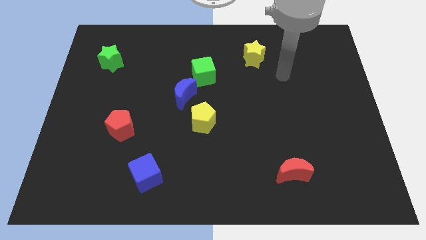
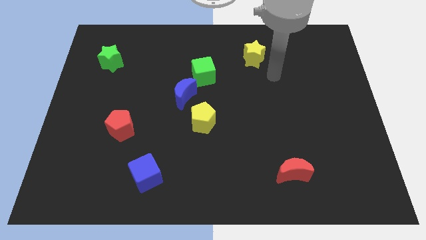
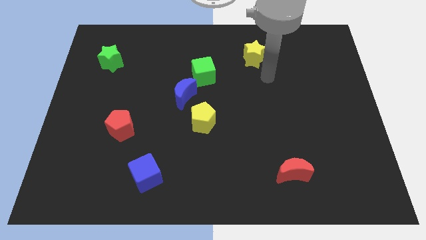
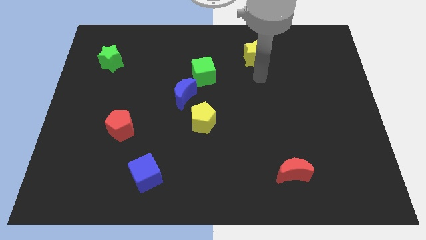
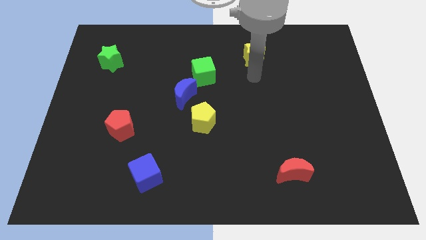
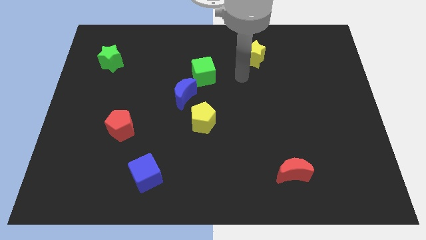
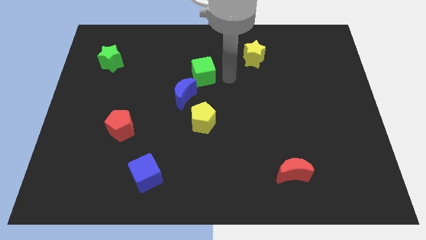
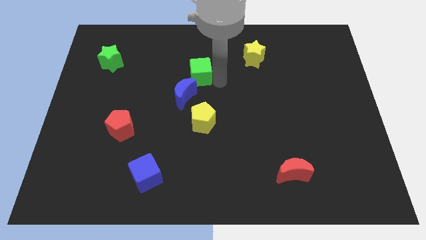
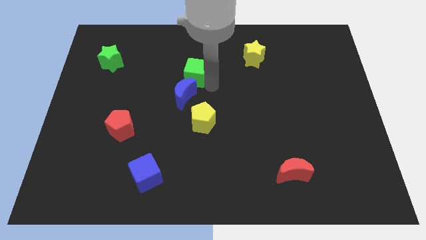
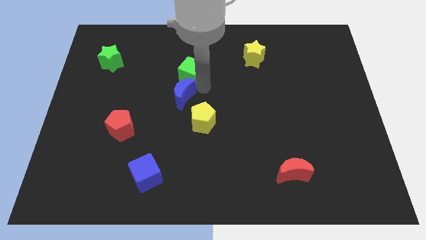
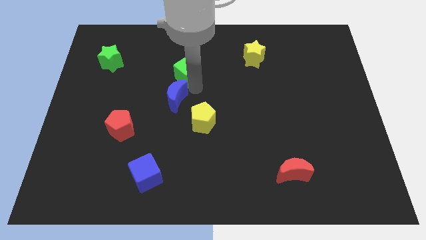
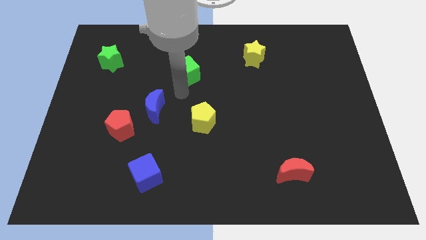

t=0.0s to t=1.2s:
pull the green cube apart from the blue moon

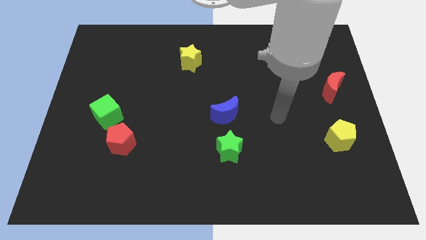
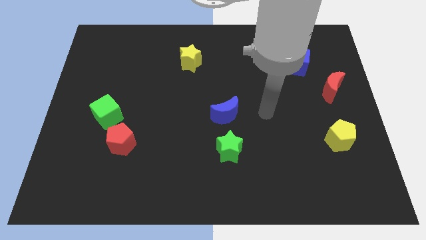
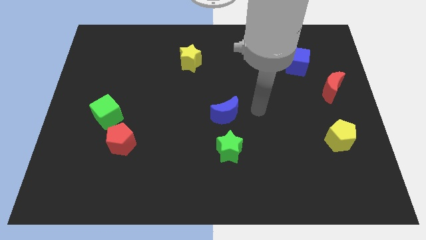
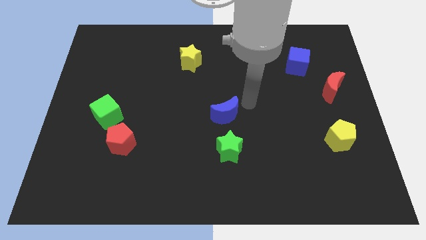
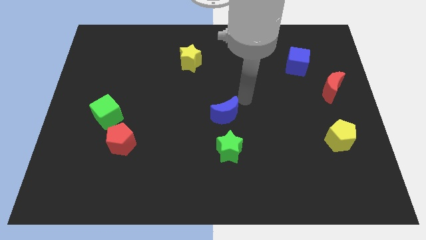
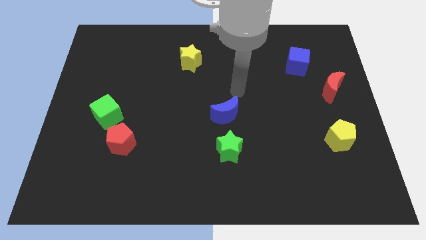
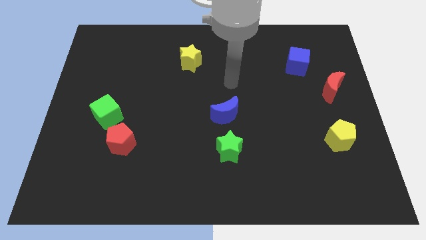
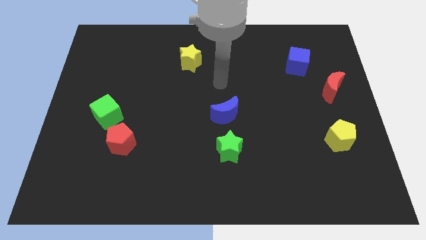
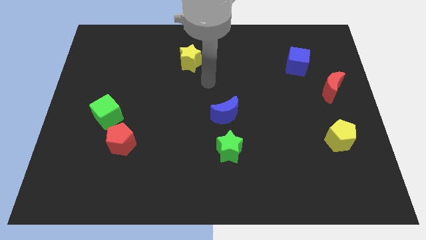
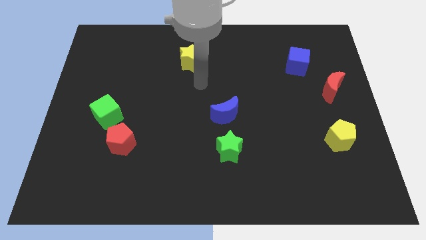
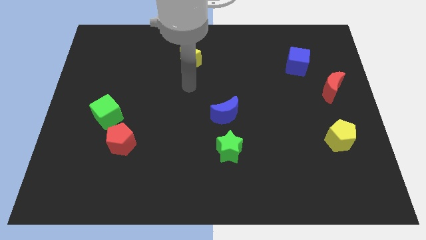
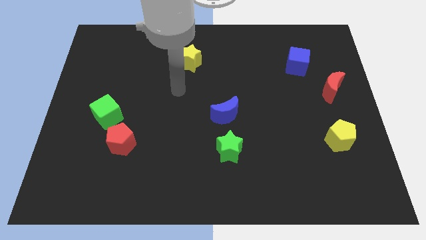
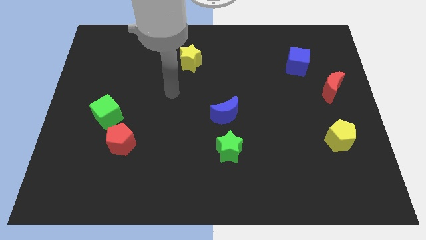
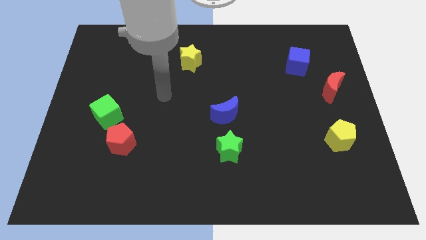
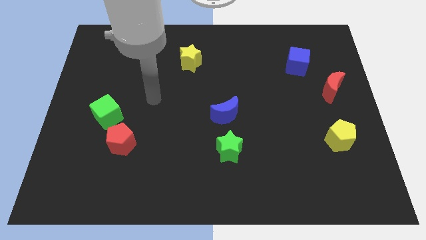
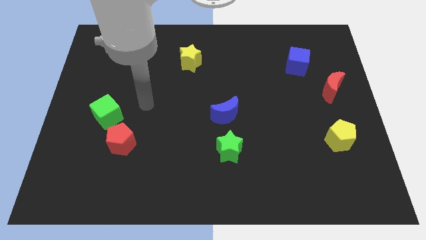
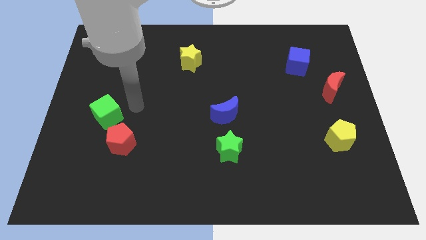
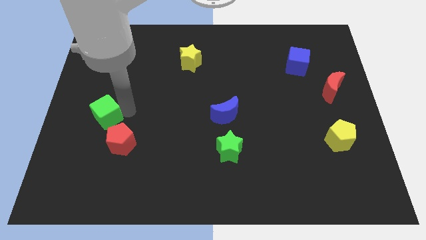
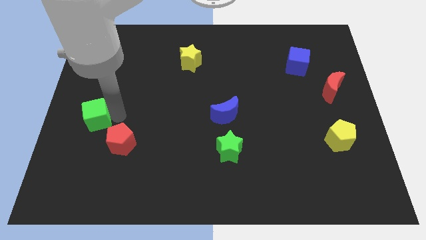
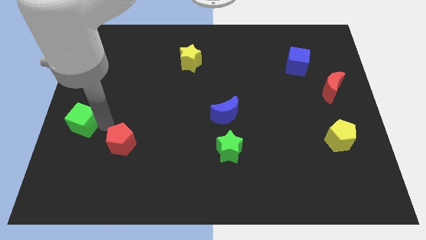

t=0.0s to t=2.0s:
pull the red pentagon apart from the green cube

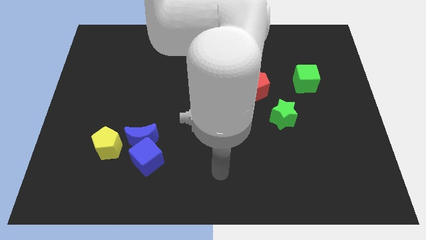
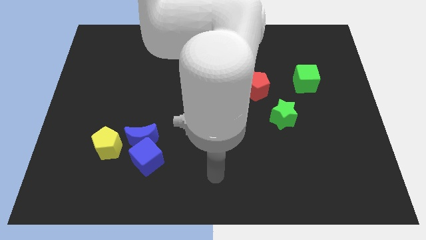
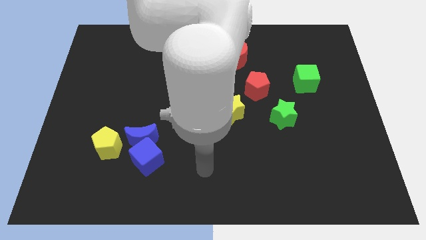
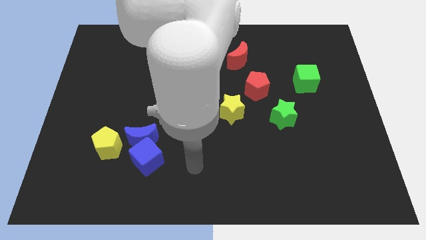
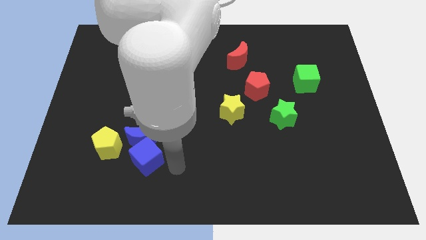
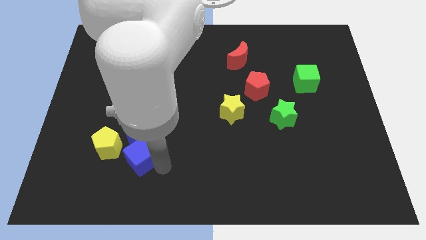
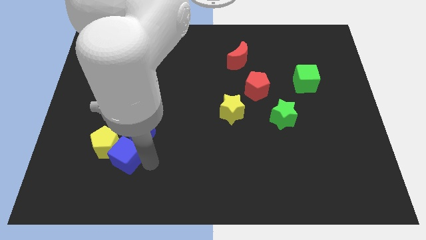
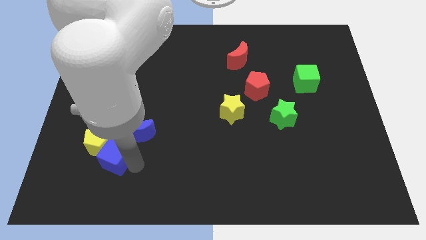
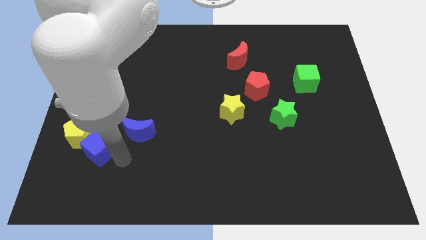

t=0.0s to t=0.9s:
pull the blue moon apart from the blue cube and yellow pentagon

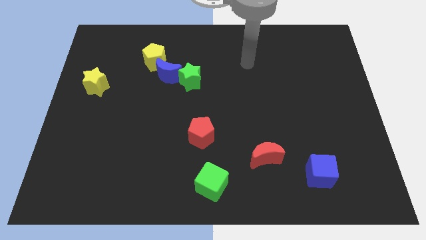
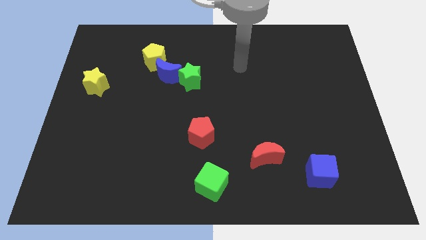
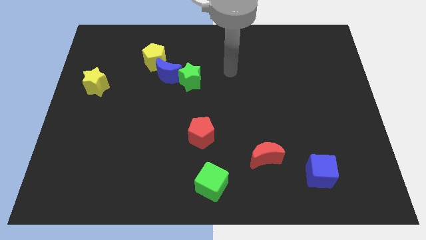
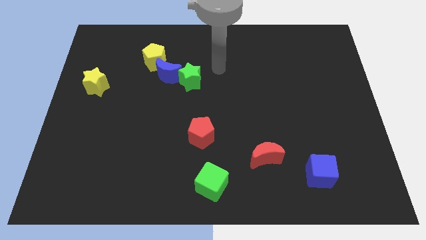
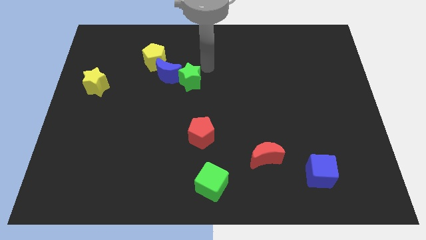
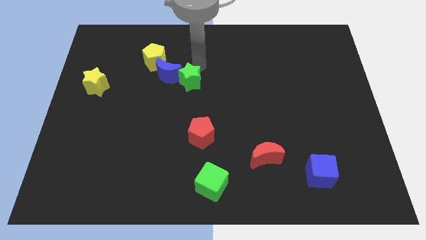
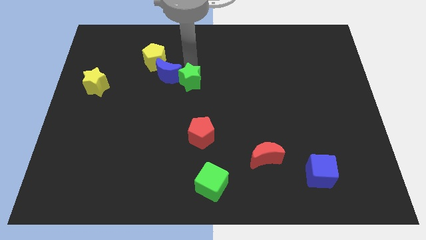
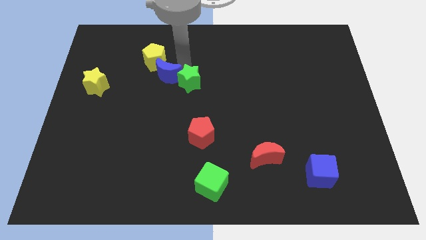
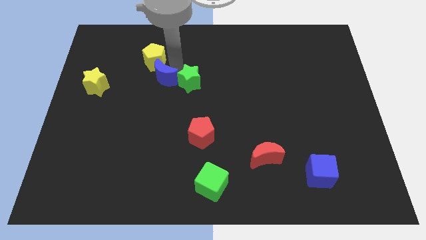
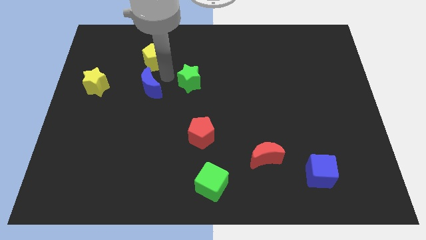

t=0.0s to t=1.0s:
move the green star away from the blue moon
